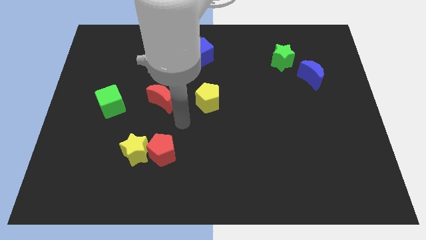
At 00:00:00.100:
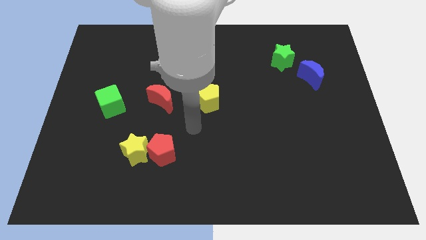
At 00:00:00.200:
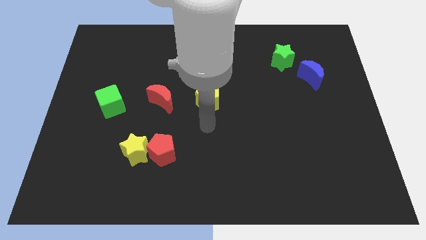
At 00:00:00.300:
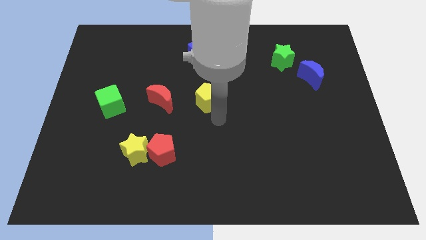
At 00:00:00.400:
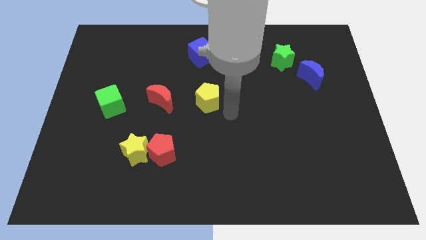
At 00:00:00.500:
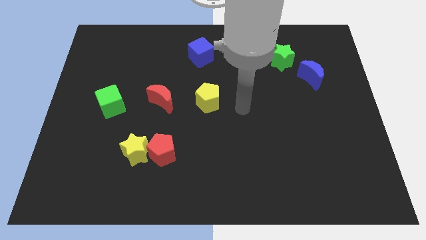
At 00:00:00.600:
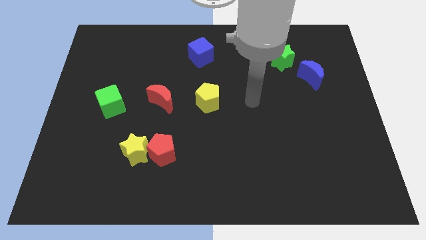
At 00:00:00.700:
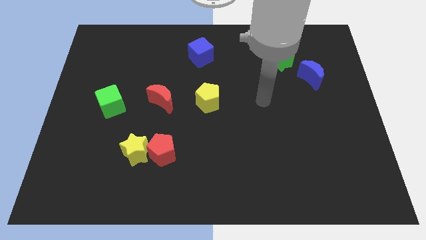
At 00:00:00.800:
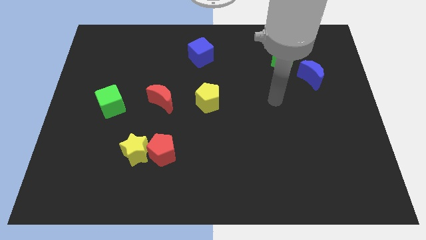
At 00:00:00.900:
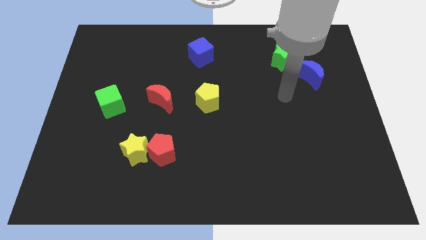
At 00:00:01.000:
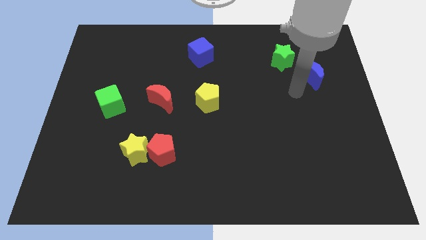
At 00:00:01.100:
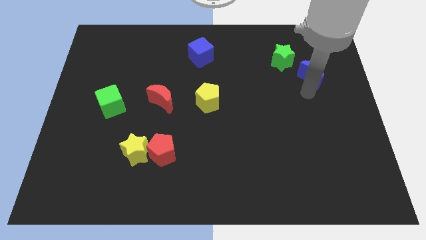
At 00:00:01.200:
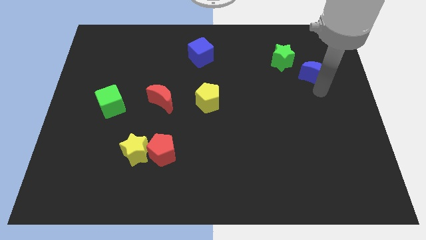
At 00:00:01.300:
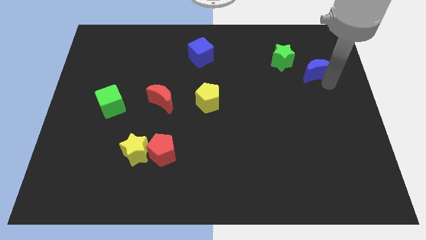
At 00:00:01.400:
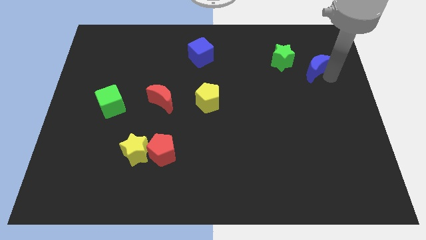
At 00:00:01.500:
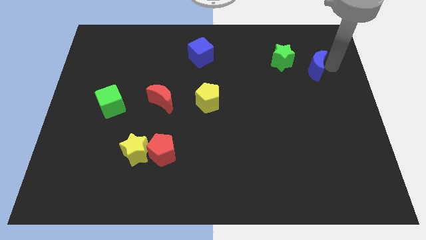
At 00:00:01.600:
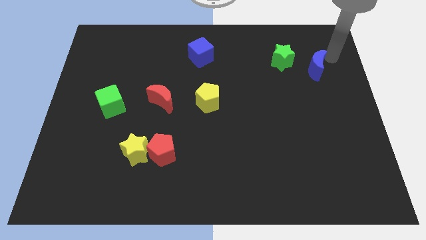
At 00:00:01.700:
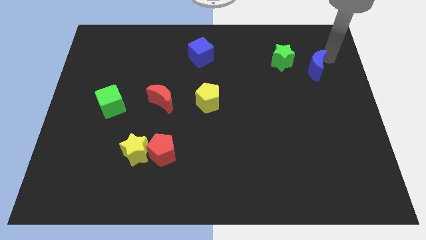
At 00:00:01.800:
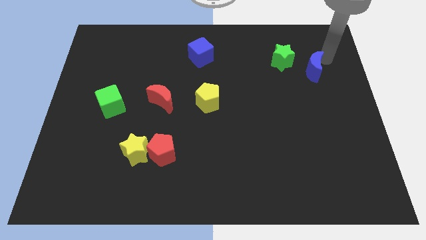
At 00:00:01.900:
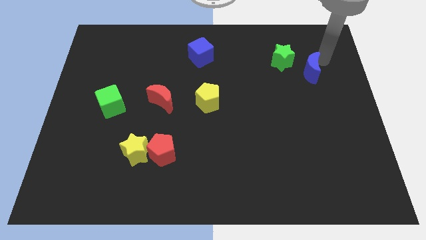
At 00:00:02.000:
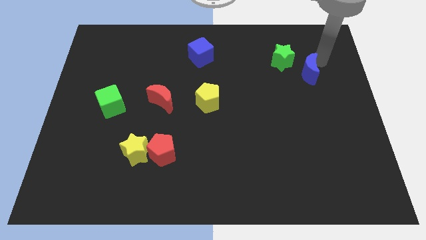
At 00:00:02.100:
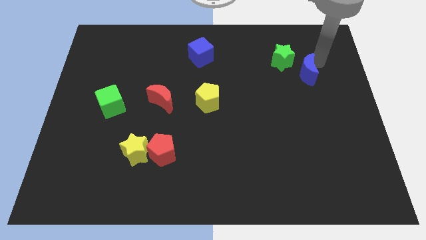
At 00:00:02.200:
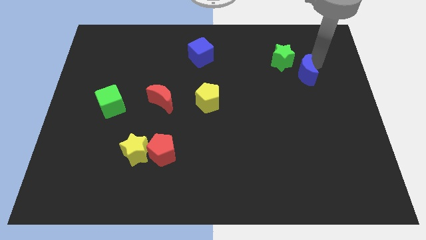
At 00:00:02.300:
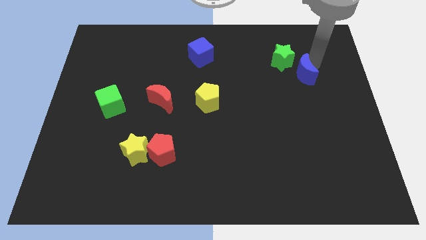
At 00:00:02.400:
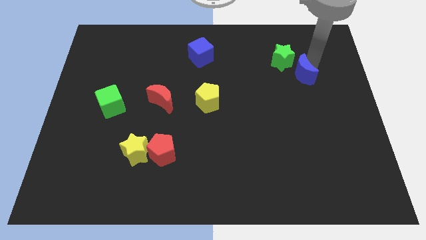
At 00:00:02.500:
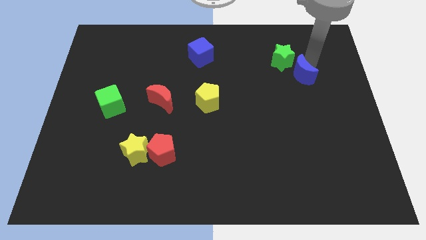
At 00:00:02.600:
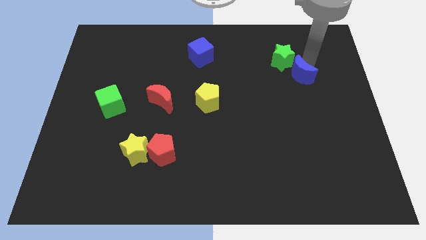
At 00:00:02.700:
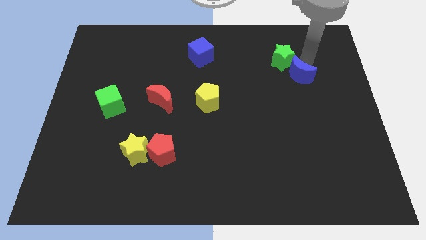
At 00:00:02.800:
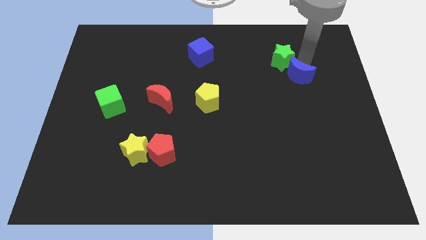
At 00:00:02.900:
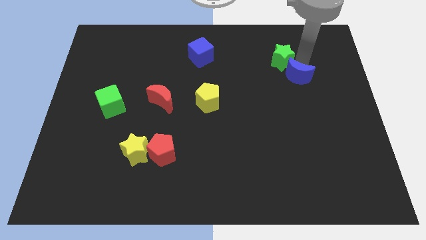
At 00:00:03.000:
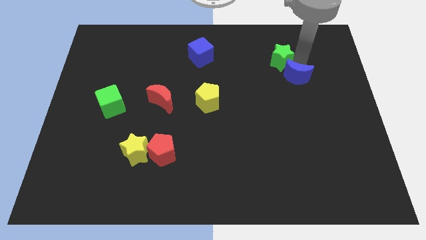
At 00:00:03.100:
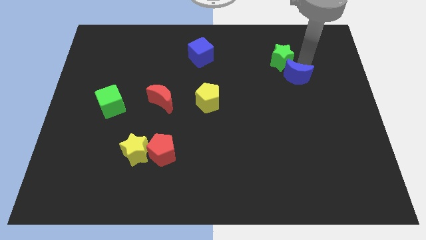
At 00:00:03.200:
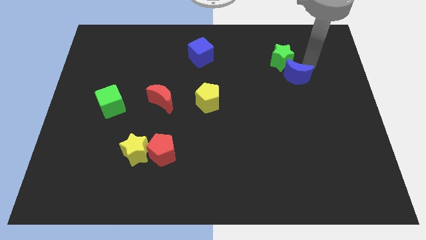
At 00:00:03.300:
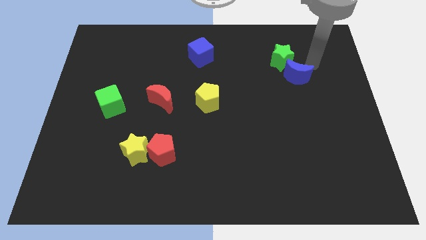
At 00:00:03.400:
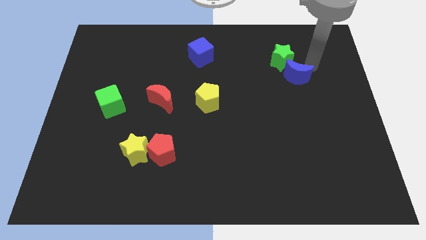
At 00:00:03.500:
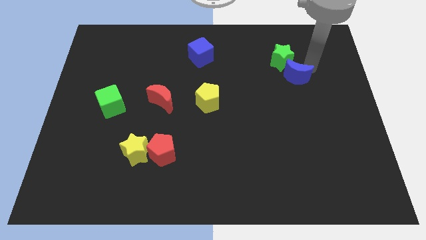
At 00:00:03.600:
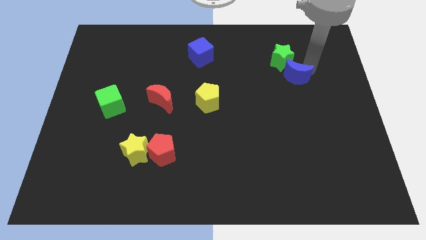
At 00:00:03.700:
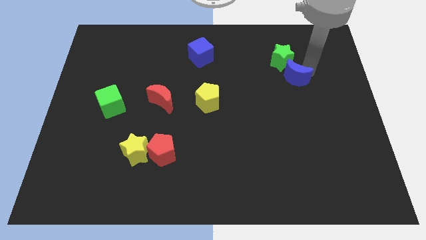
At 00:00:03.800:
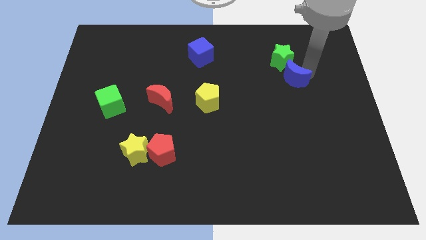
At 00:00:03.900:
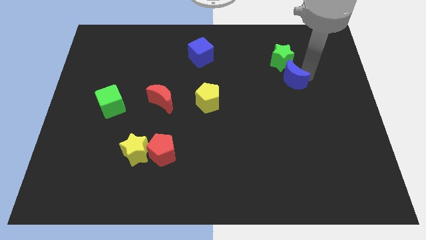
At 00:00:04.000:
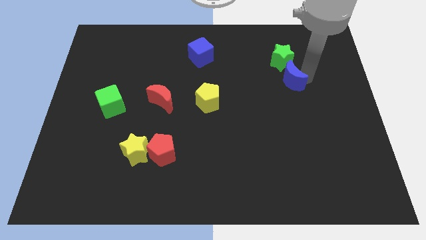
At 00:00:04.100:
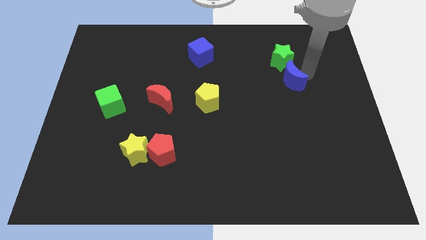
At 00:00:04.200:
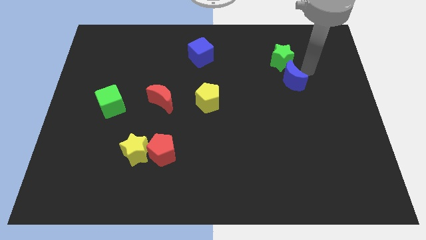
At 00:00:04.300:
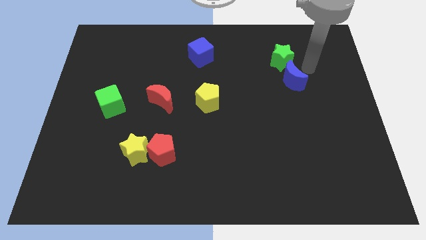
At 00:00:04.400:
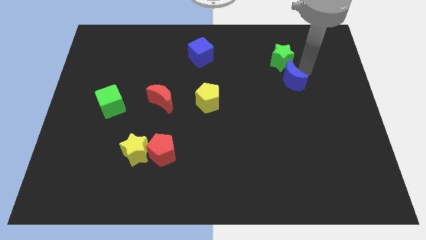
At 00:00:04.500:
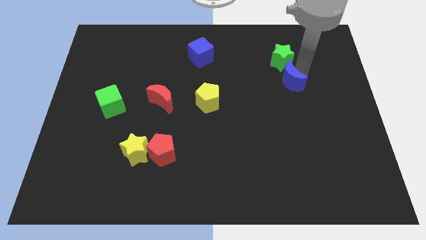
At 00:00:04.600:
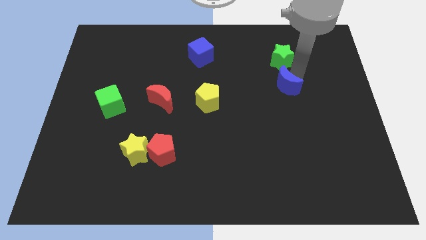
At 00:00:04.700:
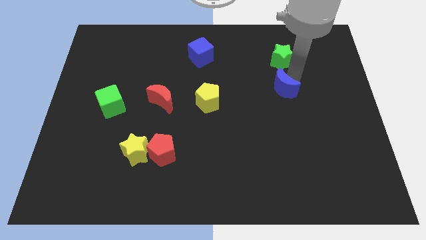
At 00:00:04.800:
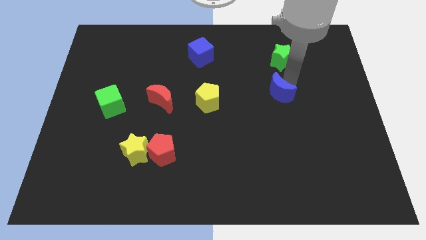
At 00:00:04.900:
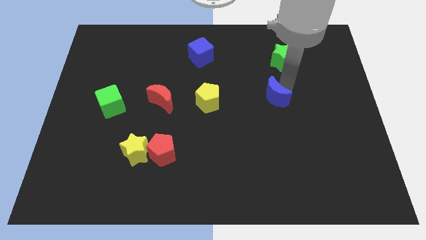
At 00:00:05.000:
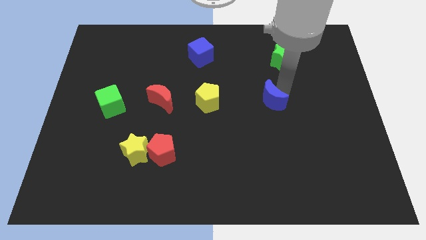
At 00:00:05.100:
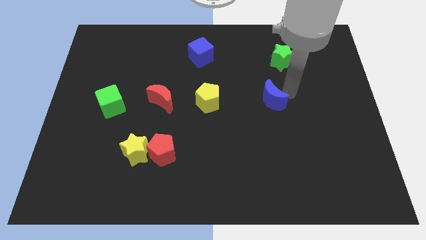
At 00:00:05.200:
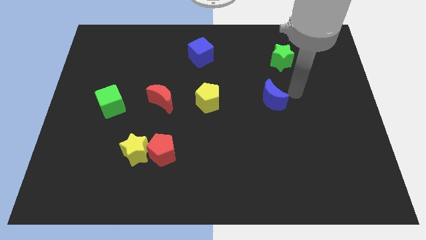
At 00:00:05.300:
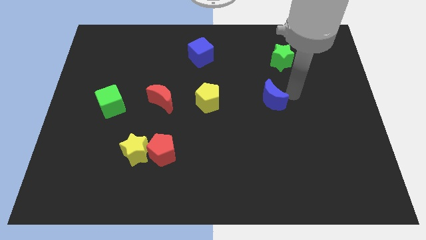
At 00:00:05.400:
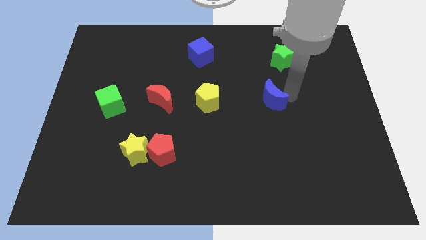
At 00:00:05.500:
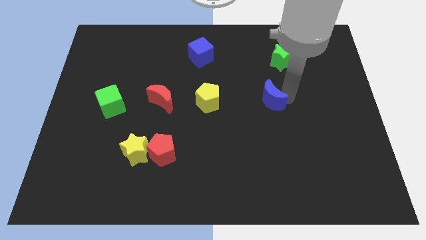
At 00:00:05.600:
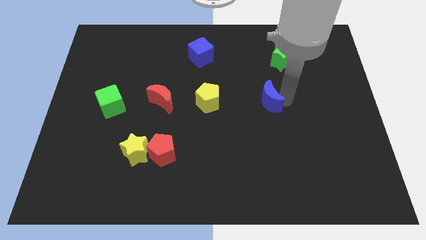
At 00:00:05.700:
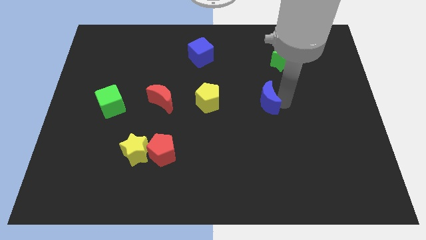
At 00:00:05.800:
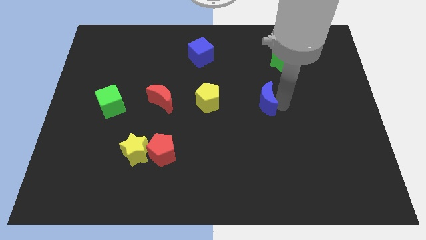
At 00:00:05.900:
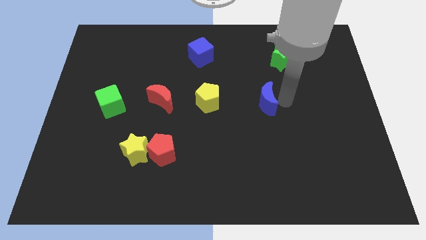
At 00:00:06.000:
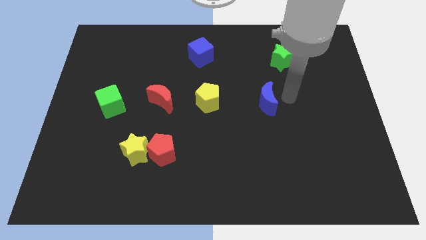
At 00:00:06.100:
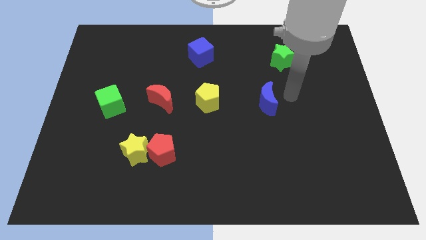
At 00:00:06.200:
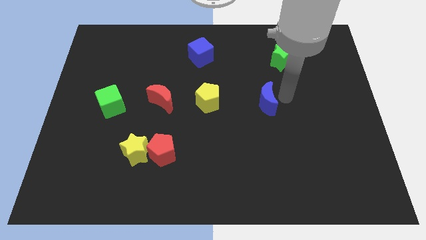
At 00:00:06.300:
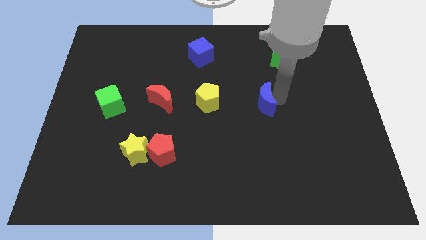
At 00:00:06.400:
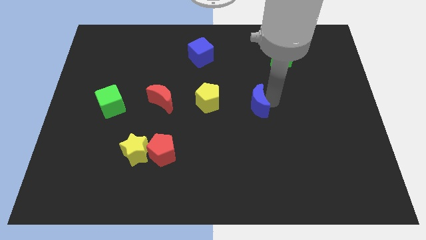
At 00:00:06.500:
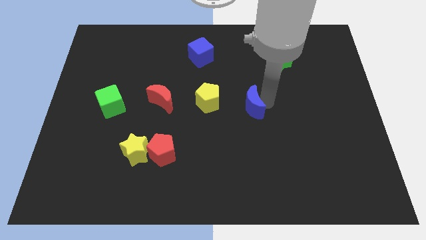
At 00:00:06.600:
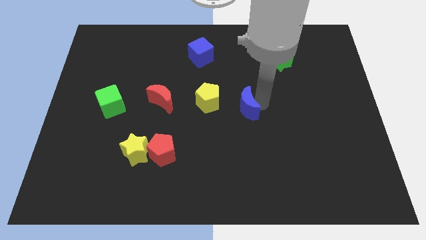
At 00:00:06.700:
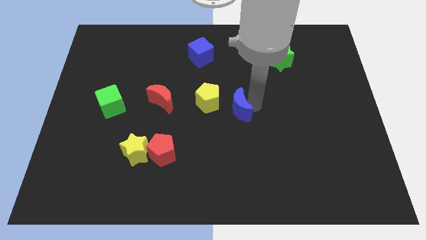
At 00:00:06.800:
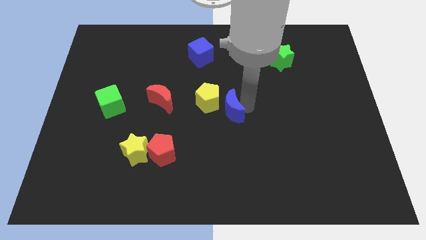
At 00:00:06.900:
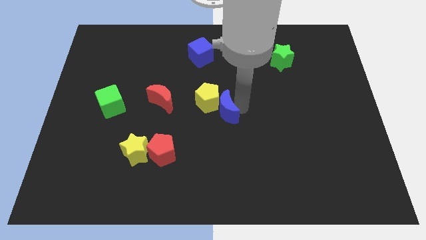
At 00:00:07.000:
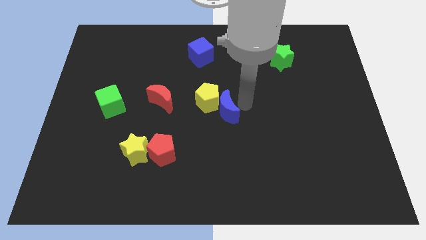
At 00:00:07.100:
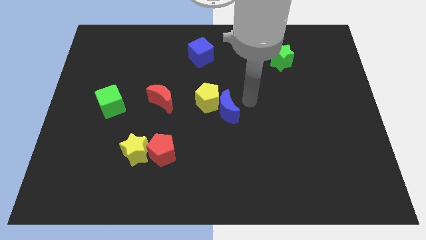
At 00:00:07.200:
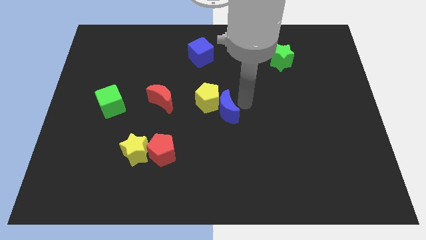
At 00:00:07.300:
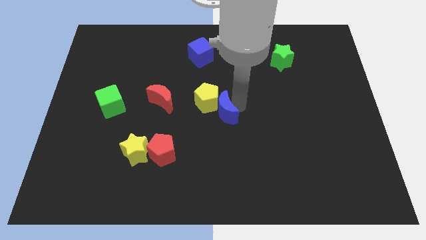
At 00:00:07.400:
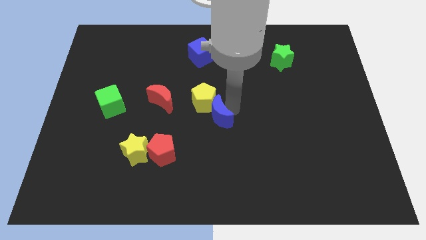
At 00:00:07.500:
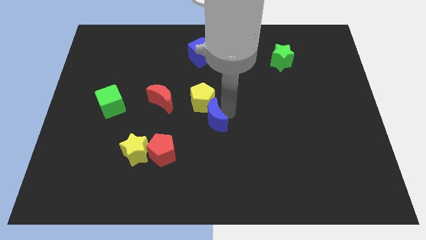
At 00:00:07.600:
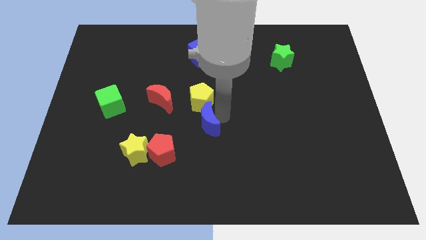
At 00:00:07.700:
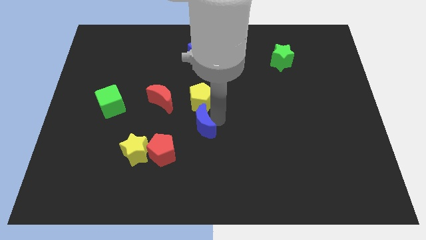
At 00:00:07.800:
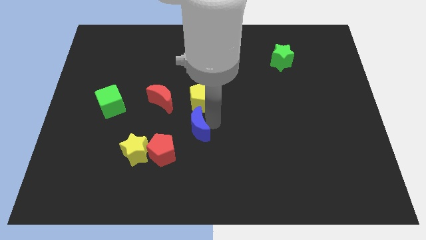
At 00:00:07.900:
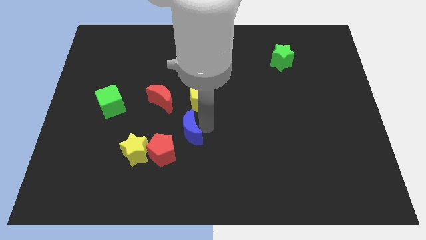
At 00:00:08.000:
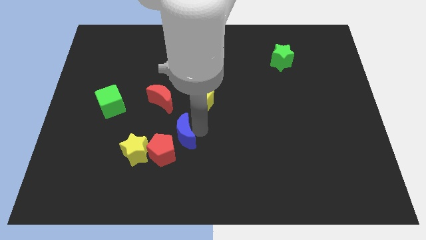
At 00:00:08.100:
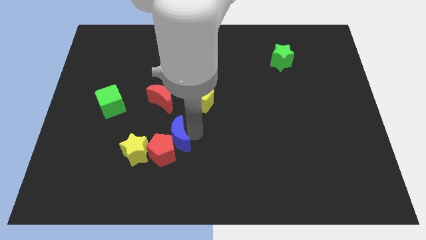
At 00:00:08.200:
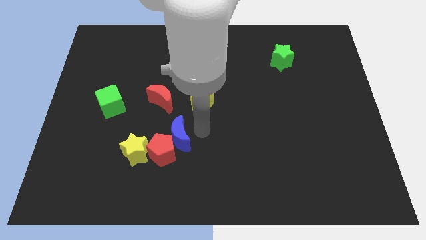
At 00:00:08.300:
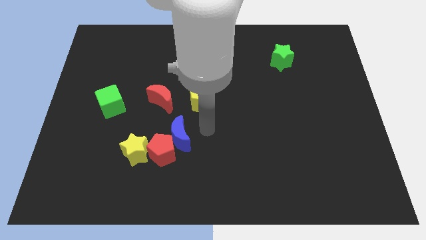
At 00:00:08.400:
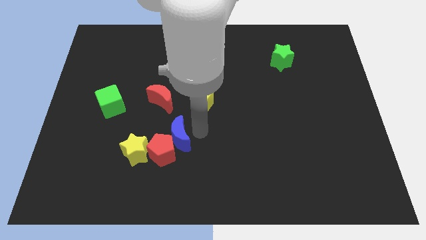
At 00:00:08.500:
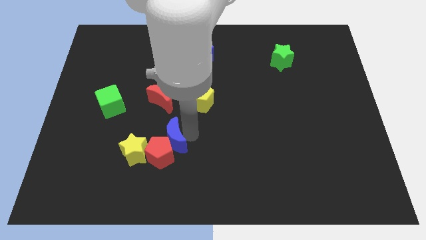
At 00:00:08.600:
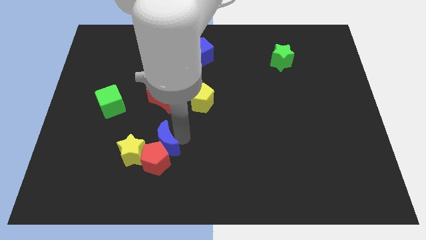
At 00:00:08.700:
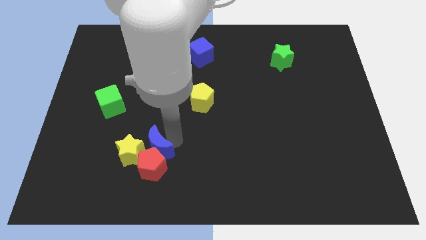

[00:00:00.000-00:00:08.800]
move the blue moon to the yellow star
